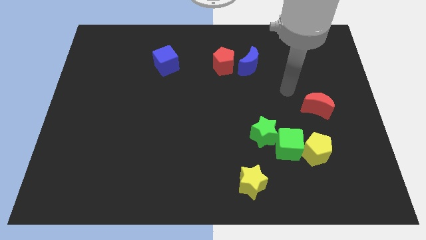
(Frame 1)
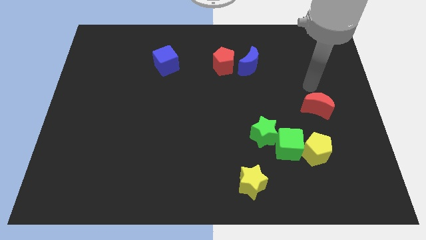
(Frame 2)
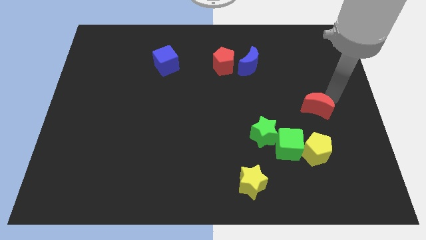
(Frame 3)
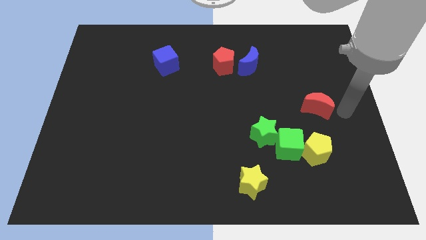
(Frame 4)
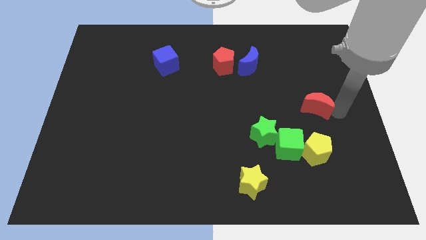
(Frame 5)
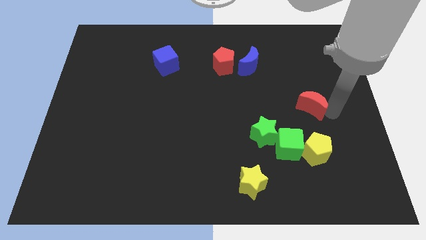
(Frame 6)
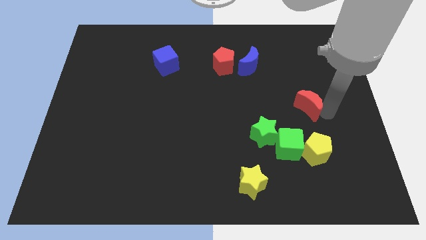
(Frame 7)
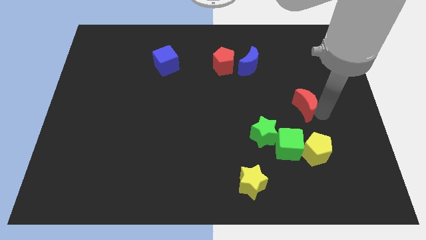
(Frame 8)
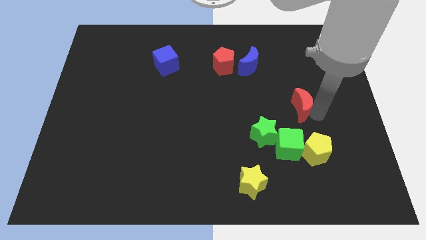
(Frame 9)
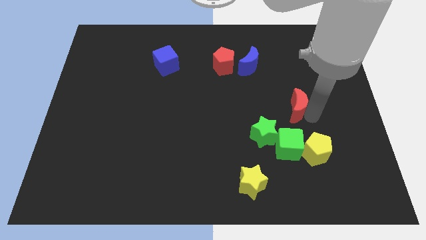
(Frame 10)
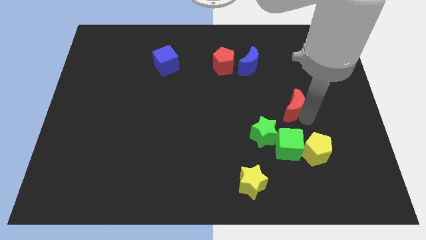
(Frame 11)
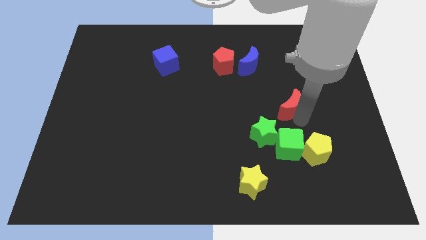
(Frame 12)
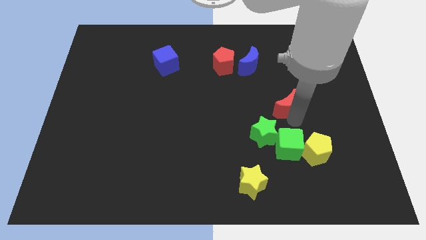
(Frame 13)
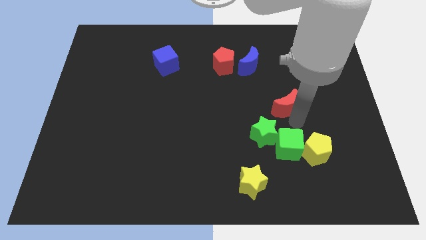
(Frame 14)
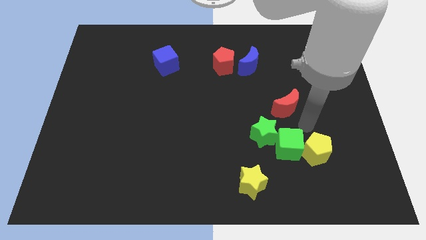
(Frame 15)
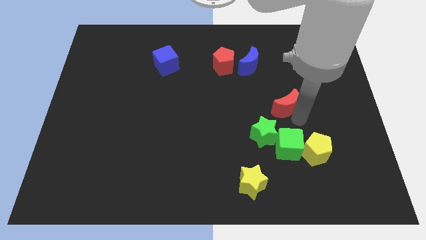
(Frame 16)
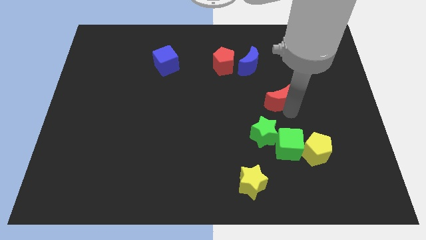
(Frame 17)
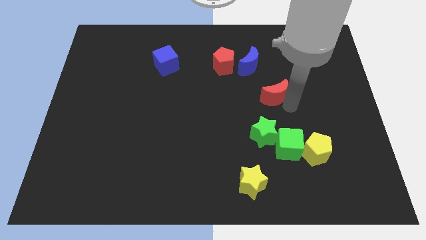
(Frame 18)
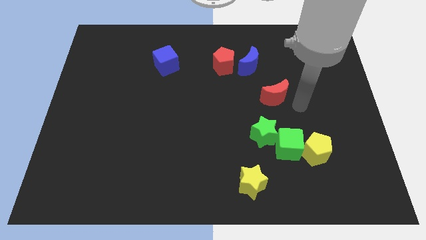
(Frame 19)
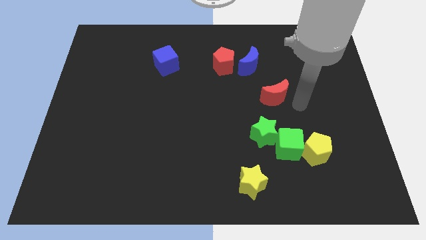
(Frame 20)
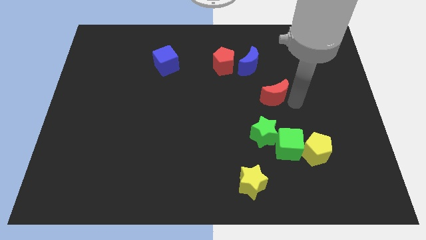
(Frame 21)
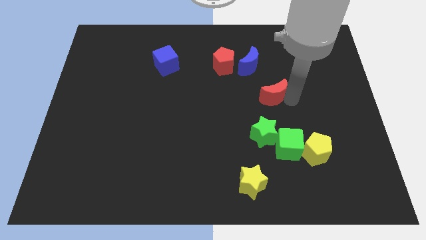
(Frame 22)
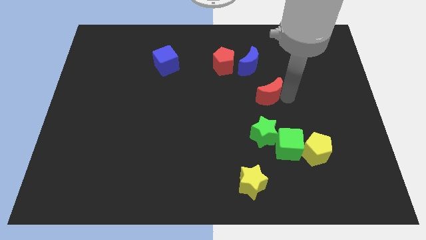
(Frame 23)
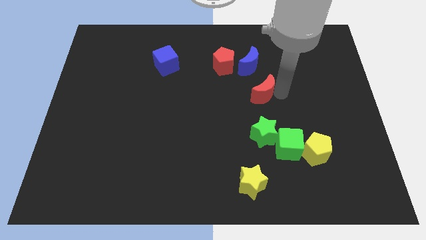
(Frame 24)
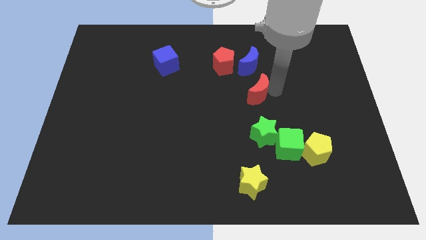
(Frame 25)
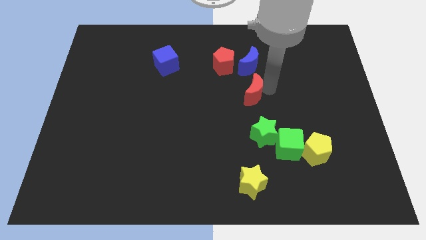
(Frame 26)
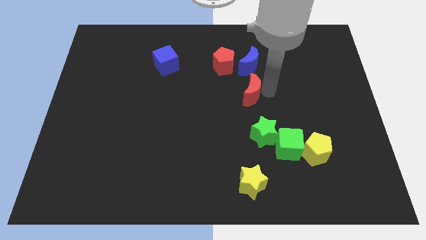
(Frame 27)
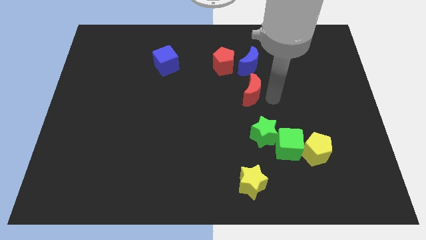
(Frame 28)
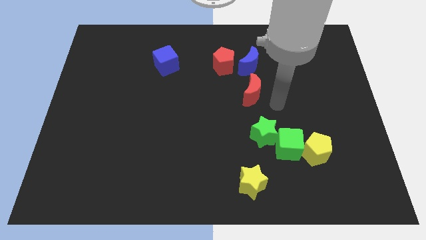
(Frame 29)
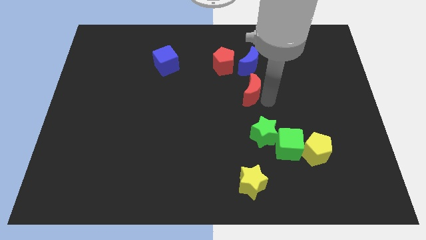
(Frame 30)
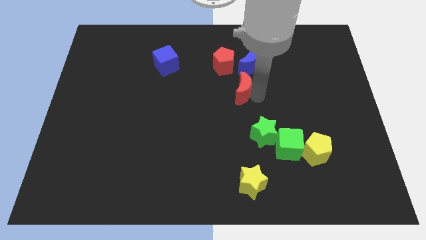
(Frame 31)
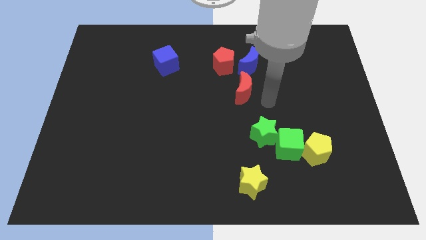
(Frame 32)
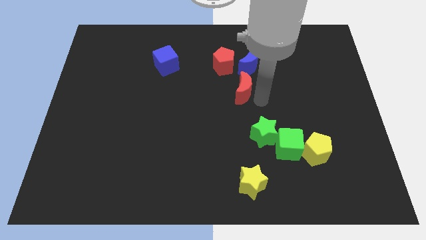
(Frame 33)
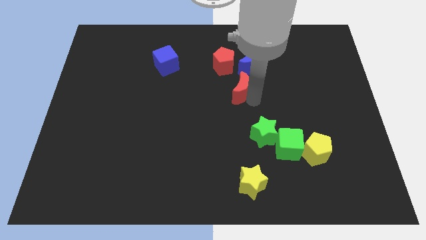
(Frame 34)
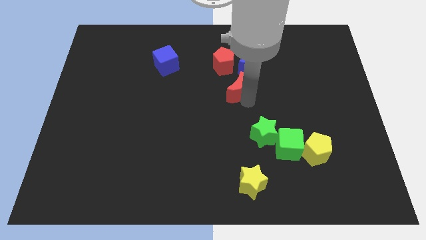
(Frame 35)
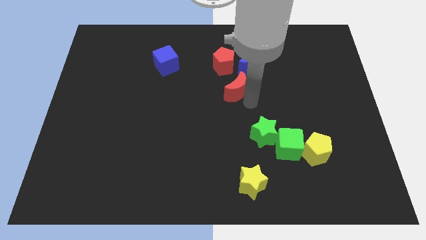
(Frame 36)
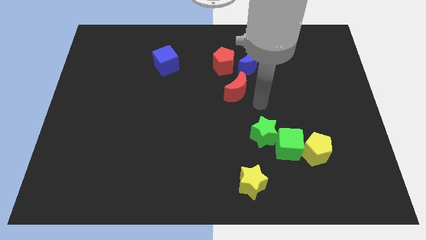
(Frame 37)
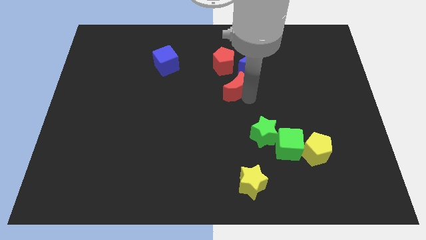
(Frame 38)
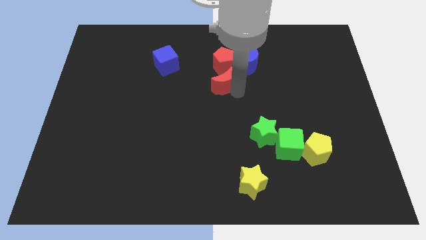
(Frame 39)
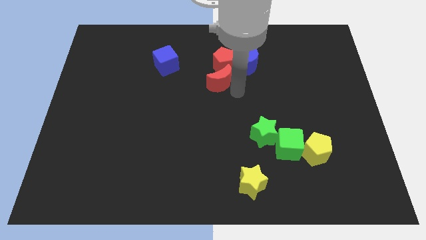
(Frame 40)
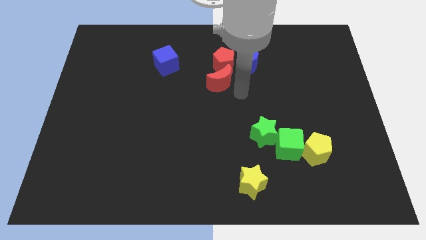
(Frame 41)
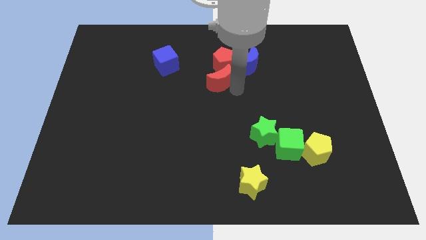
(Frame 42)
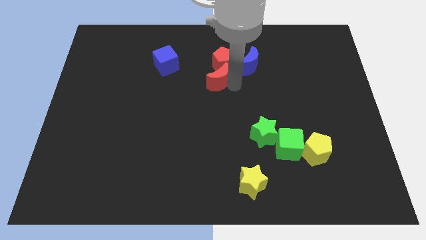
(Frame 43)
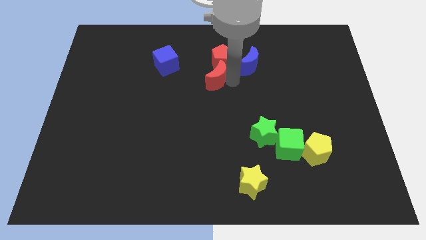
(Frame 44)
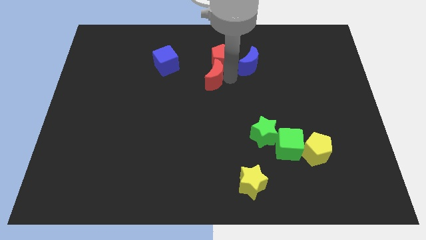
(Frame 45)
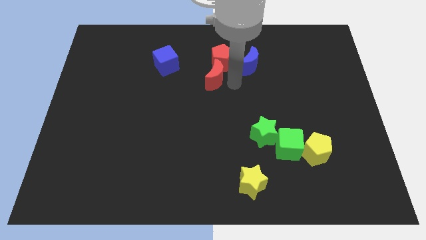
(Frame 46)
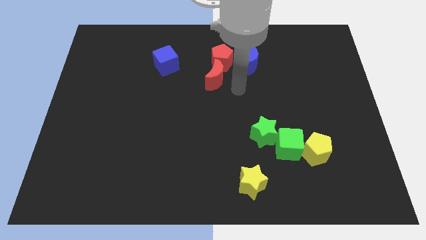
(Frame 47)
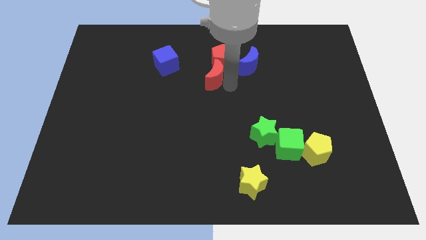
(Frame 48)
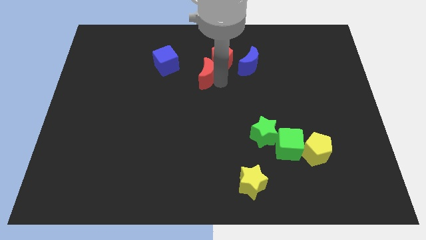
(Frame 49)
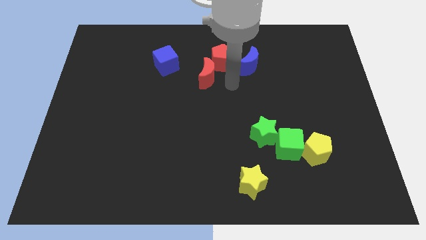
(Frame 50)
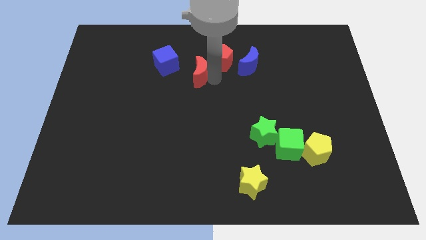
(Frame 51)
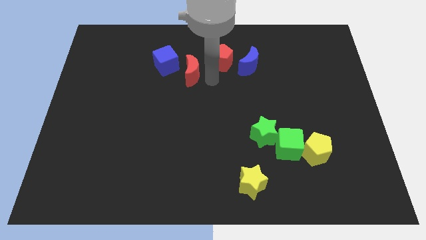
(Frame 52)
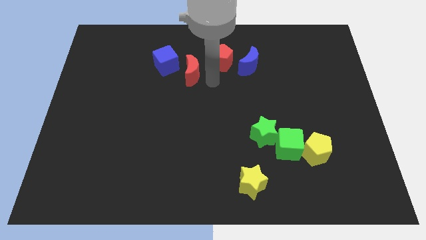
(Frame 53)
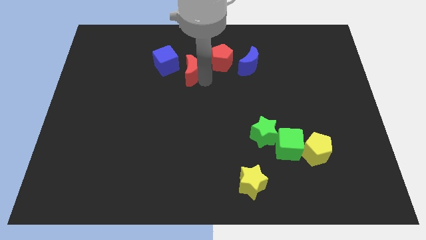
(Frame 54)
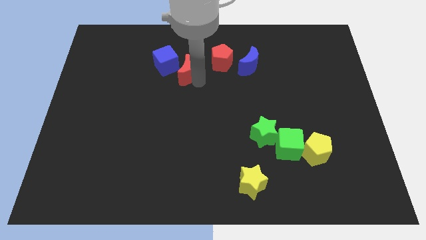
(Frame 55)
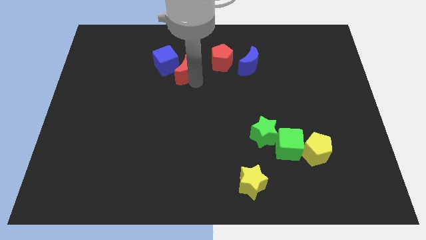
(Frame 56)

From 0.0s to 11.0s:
push the red moon next to the blue cube

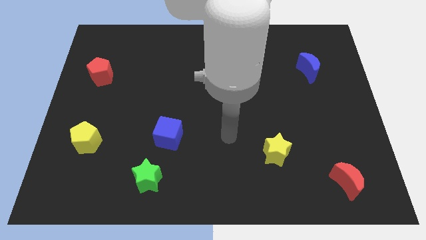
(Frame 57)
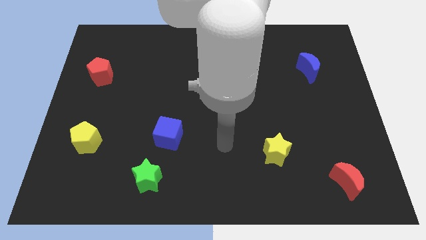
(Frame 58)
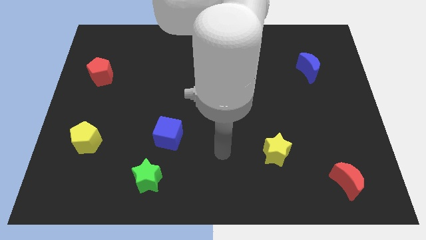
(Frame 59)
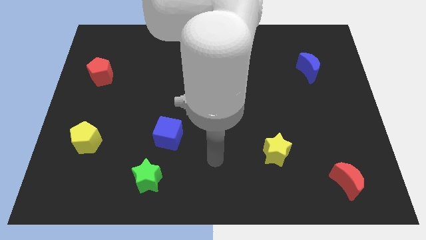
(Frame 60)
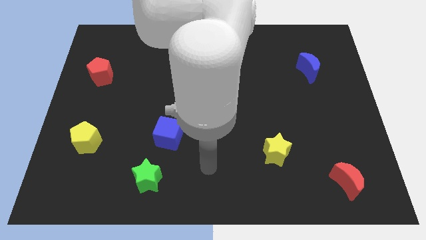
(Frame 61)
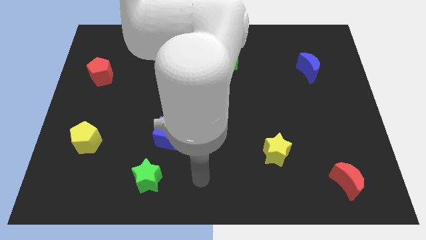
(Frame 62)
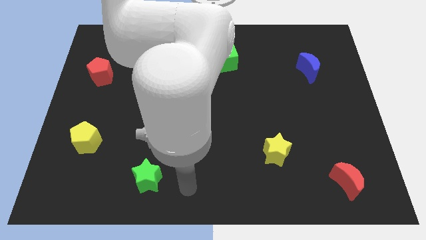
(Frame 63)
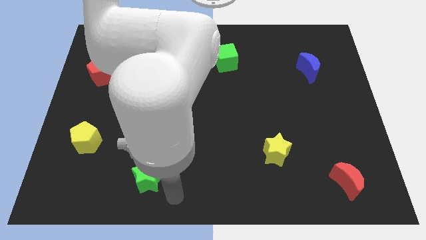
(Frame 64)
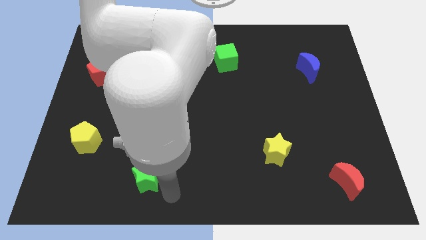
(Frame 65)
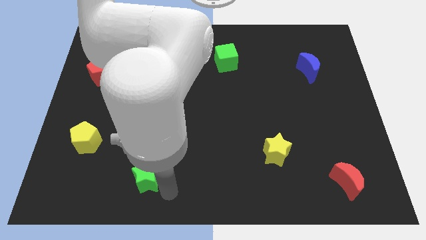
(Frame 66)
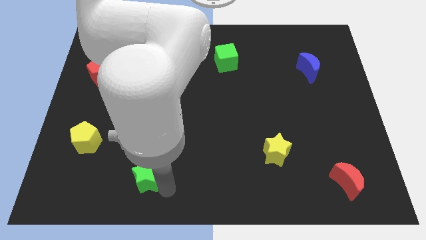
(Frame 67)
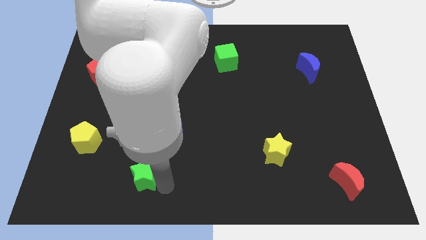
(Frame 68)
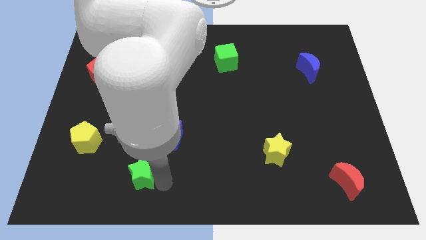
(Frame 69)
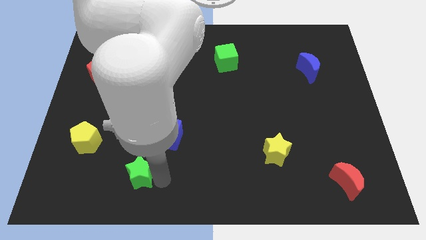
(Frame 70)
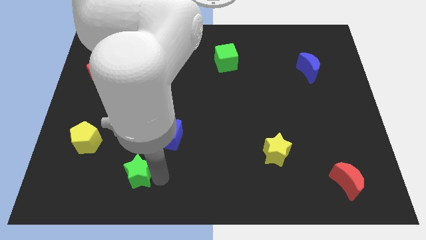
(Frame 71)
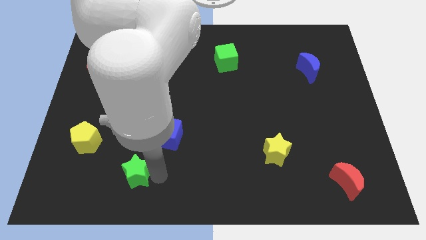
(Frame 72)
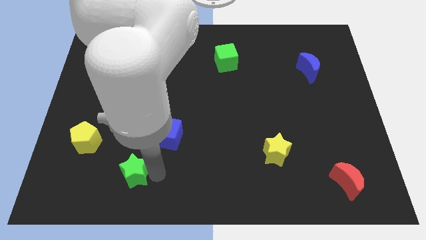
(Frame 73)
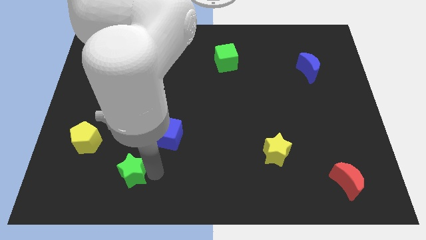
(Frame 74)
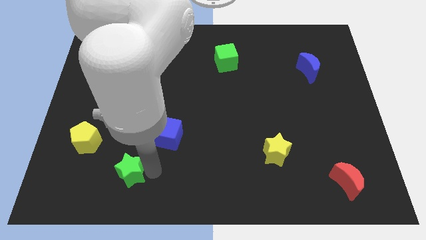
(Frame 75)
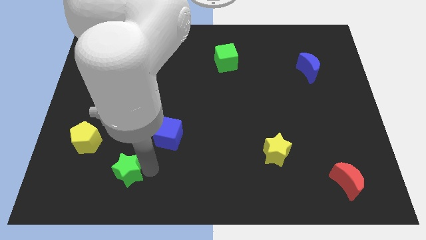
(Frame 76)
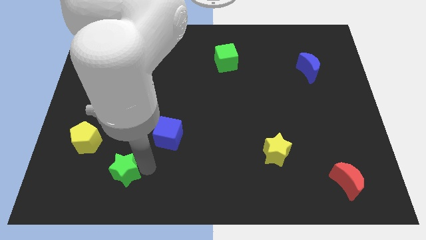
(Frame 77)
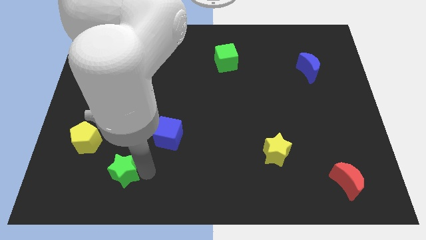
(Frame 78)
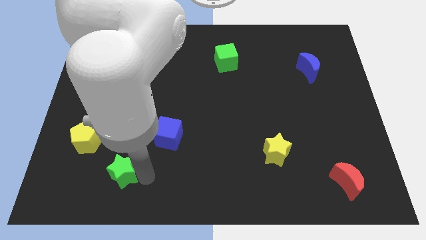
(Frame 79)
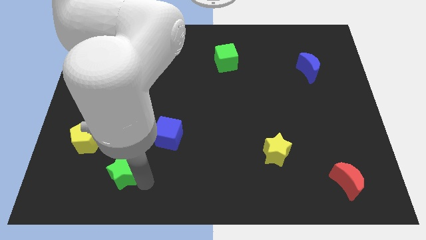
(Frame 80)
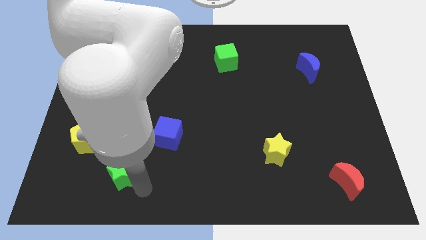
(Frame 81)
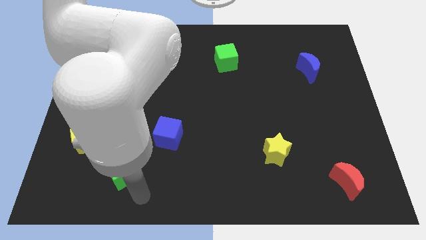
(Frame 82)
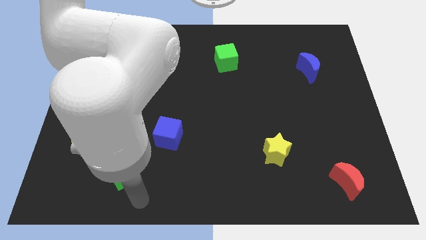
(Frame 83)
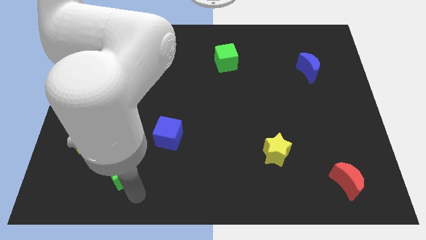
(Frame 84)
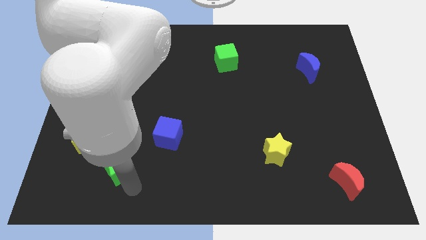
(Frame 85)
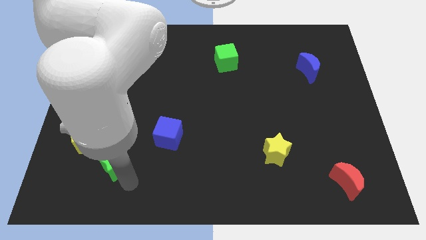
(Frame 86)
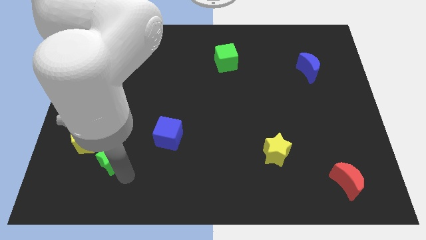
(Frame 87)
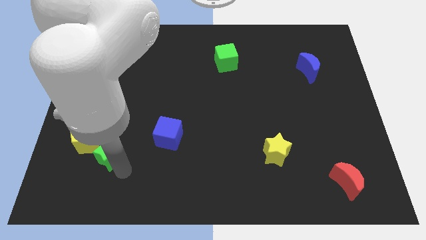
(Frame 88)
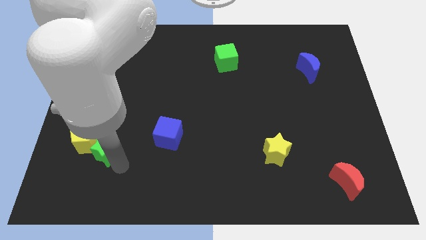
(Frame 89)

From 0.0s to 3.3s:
slide the green star towards the yellow pentagon
